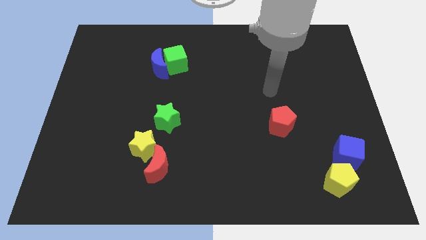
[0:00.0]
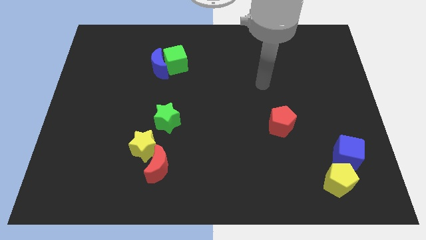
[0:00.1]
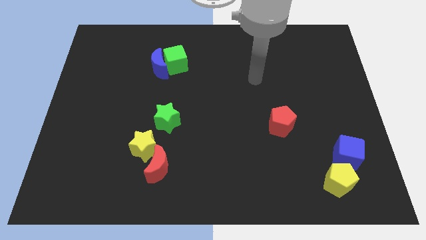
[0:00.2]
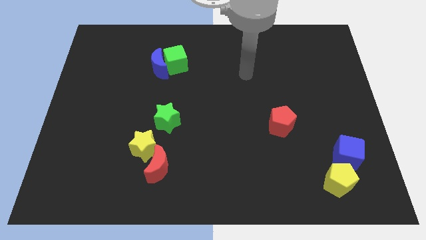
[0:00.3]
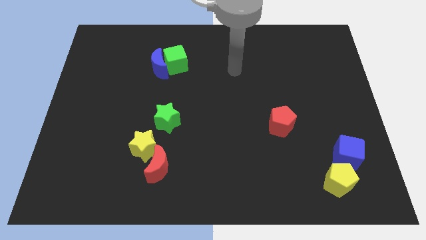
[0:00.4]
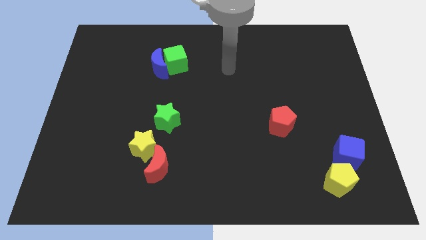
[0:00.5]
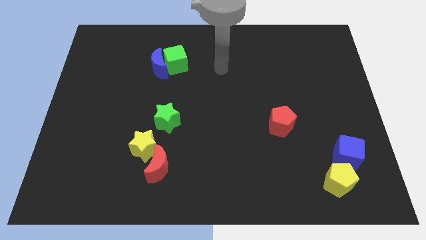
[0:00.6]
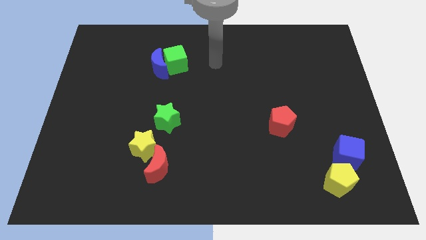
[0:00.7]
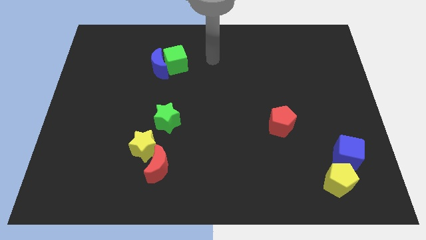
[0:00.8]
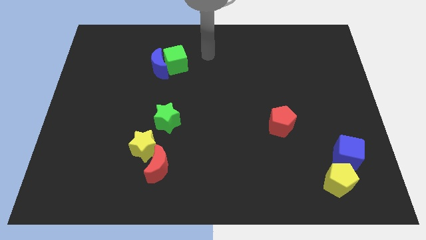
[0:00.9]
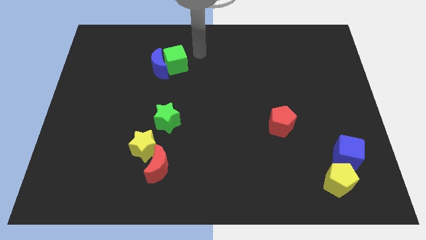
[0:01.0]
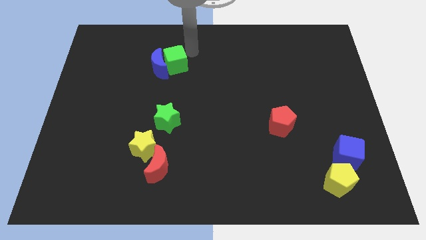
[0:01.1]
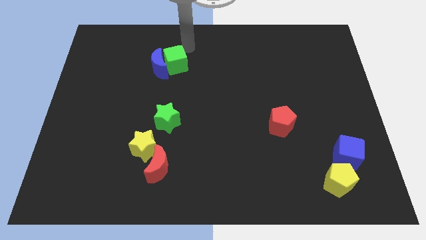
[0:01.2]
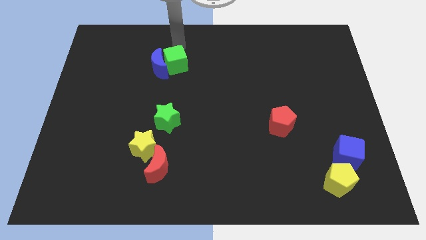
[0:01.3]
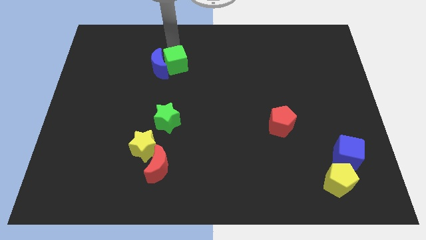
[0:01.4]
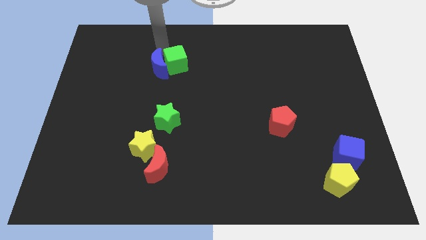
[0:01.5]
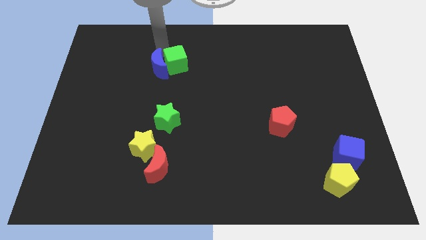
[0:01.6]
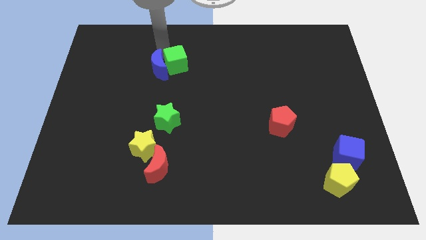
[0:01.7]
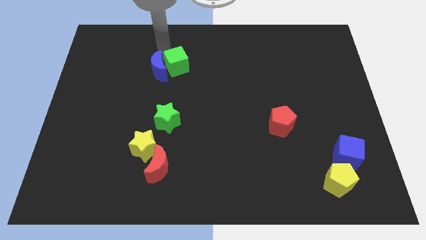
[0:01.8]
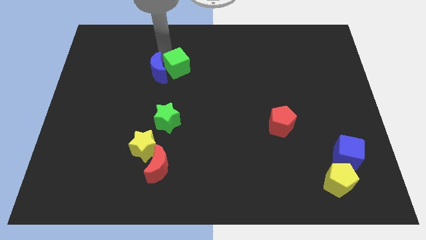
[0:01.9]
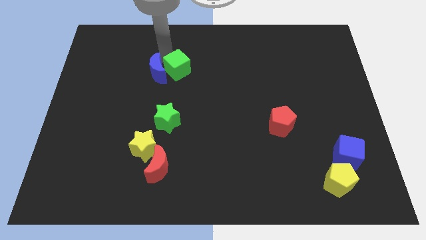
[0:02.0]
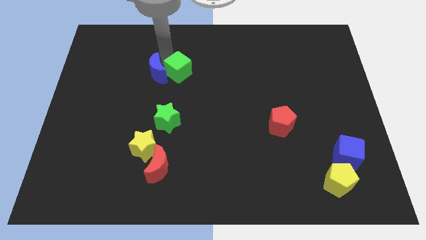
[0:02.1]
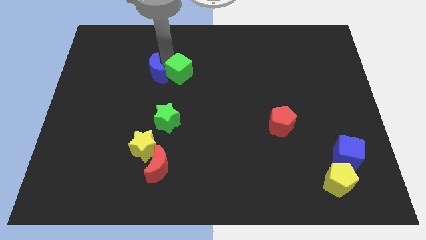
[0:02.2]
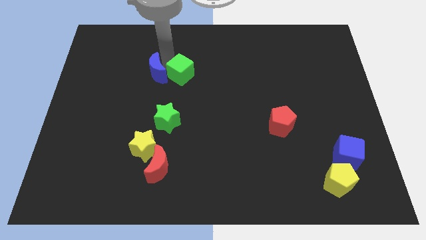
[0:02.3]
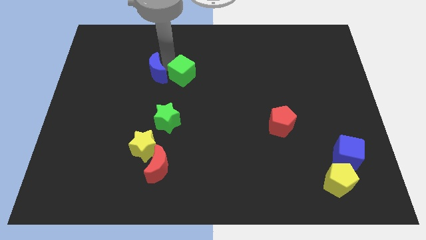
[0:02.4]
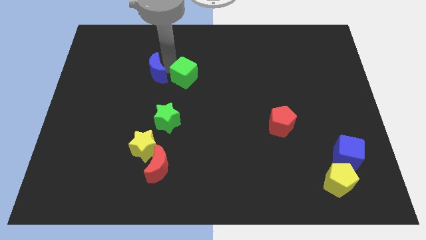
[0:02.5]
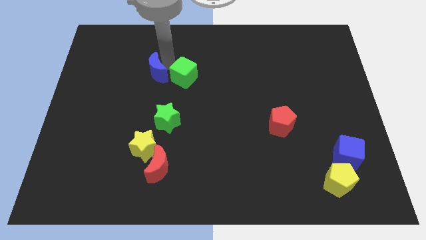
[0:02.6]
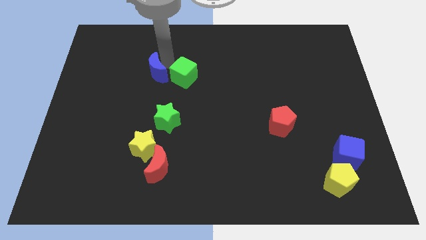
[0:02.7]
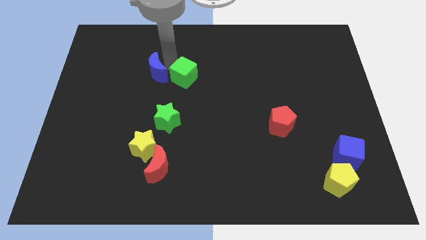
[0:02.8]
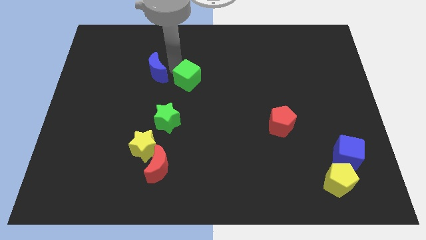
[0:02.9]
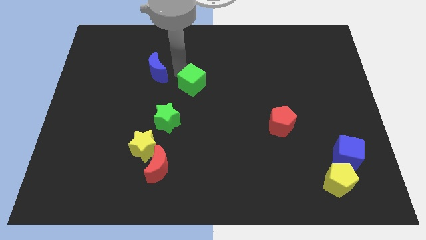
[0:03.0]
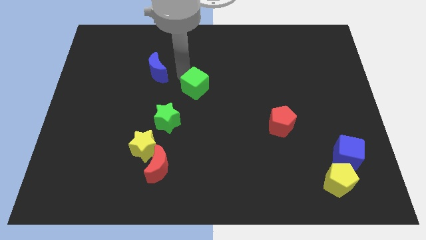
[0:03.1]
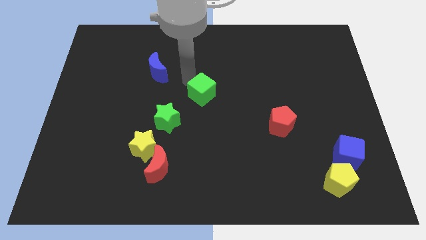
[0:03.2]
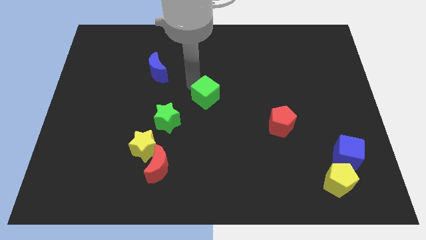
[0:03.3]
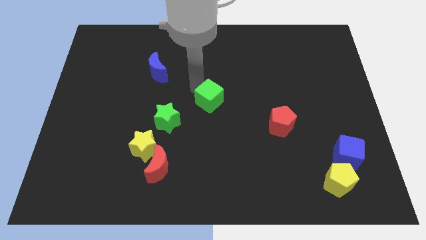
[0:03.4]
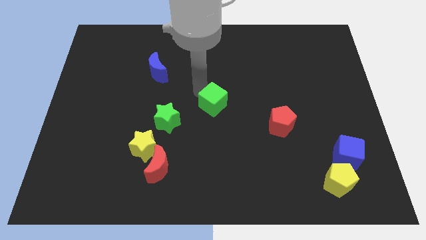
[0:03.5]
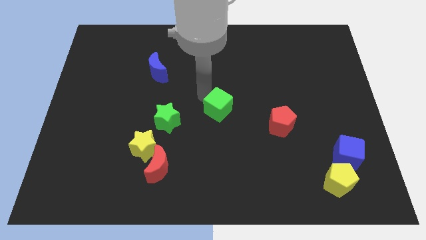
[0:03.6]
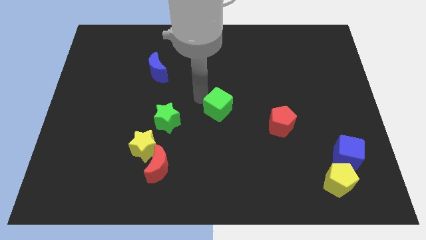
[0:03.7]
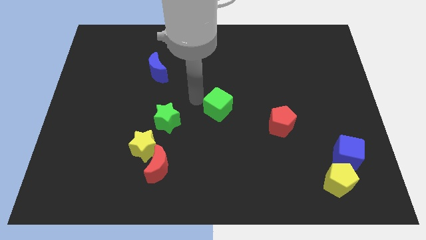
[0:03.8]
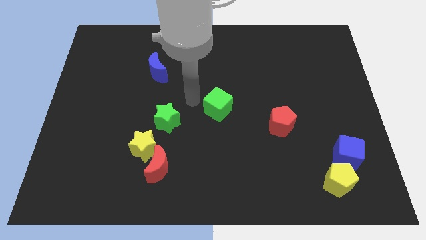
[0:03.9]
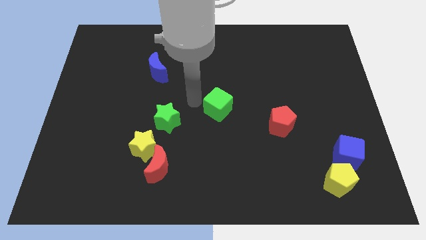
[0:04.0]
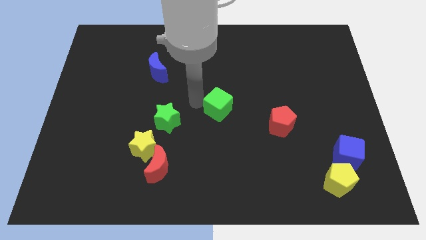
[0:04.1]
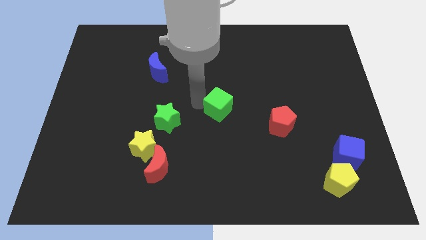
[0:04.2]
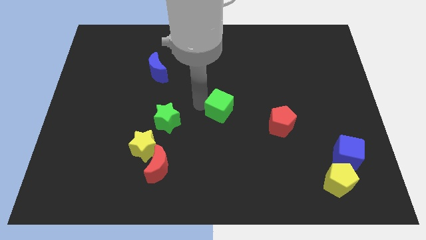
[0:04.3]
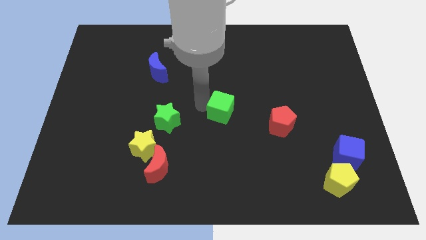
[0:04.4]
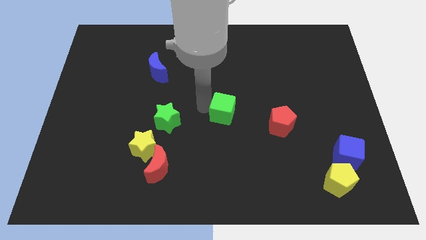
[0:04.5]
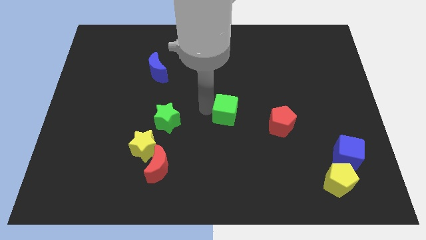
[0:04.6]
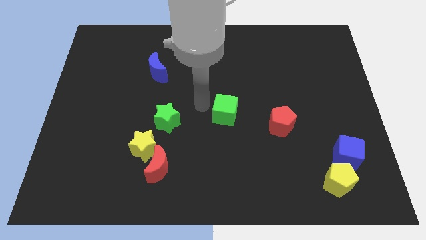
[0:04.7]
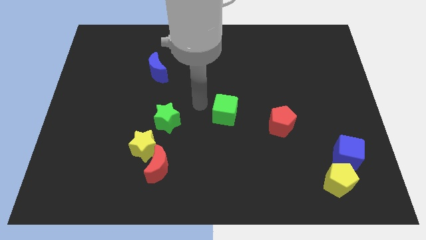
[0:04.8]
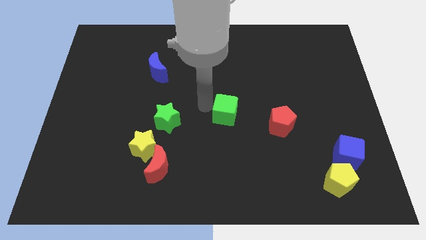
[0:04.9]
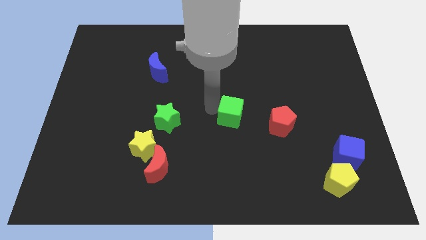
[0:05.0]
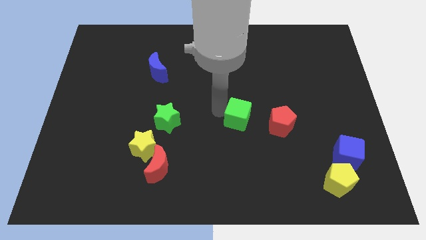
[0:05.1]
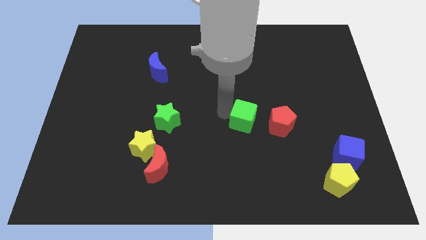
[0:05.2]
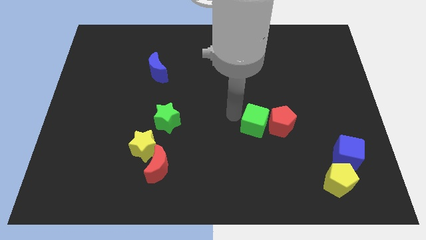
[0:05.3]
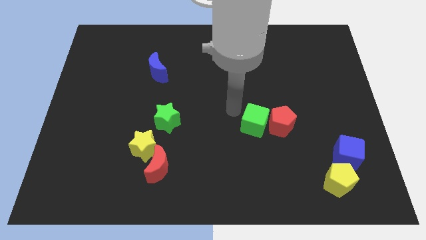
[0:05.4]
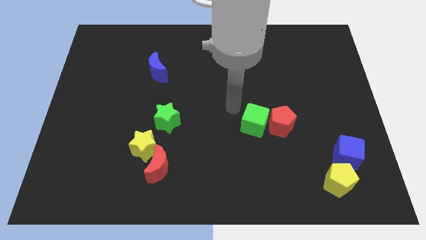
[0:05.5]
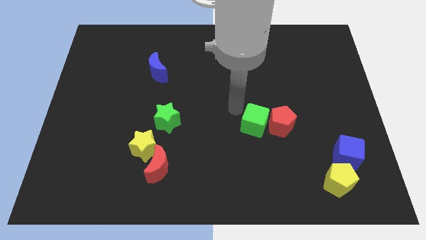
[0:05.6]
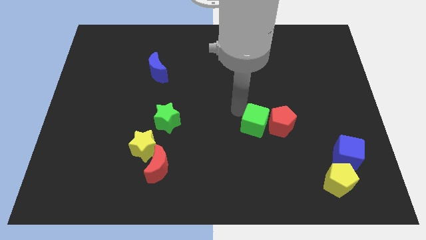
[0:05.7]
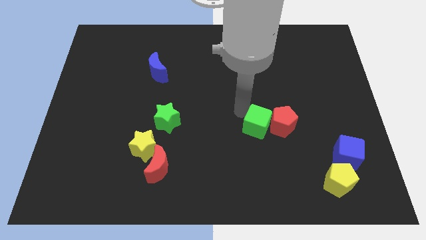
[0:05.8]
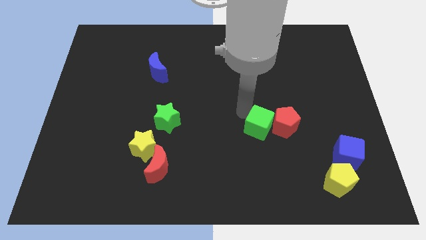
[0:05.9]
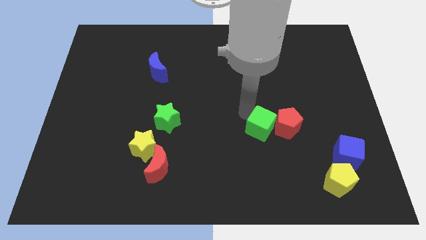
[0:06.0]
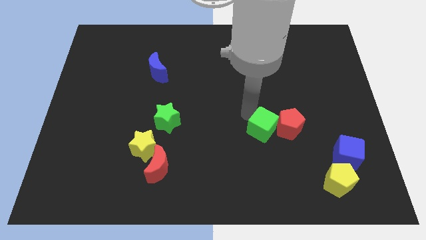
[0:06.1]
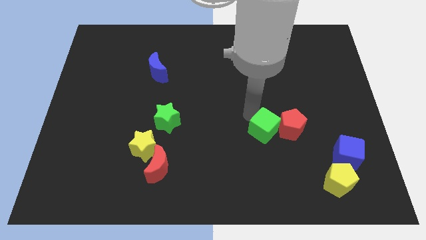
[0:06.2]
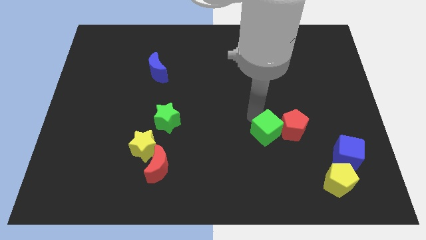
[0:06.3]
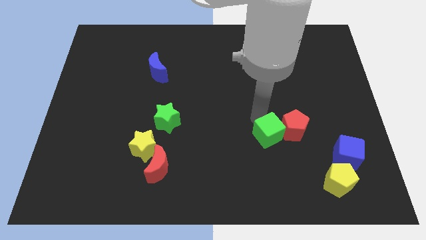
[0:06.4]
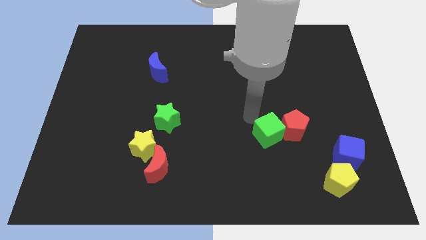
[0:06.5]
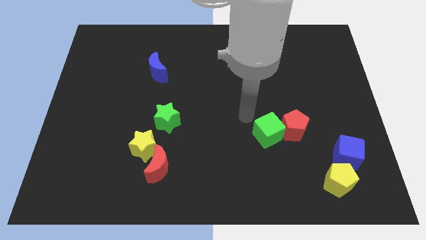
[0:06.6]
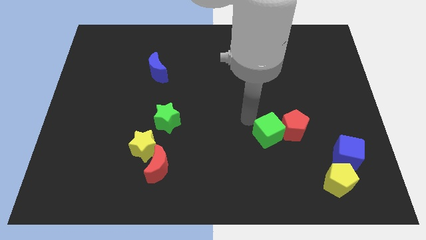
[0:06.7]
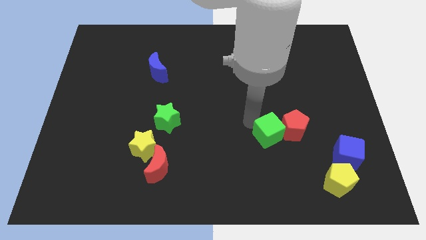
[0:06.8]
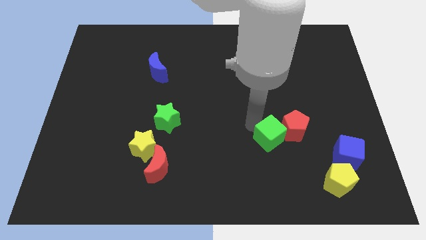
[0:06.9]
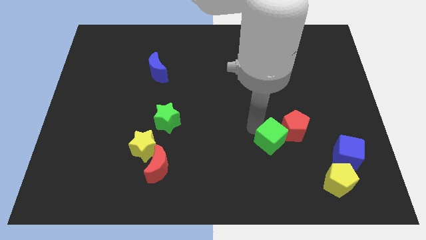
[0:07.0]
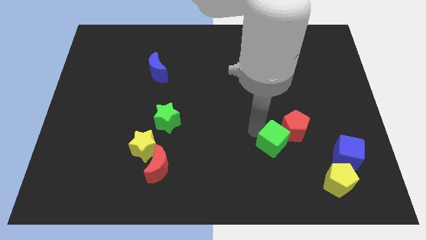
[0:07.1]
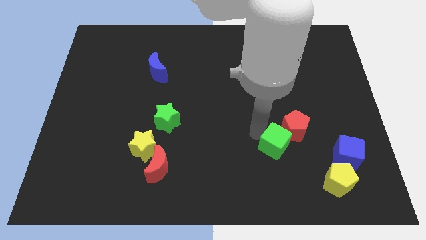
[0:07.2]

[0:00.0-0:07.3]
slide the green cube just left of the blue cube
